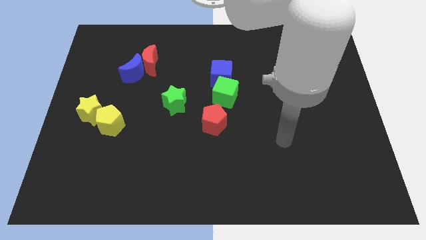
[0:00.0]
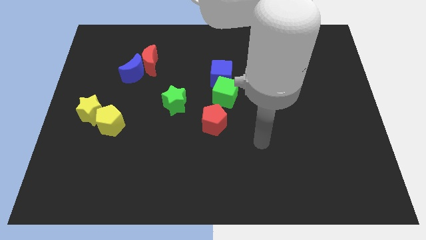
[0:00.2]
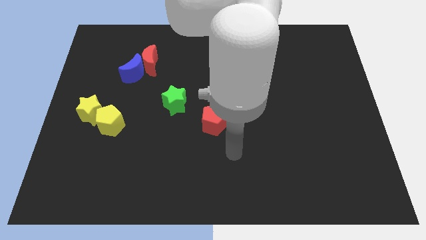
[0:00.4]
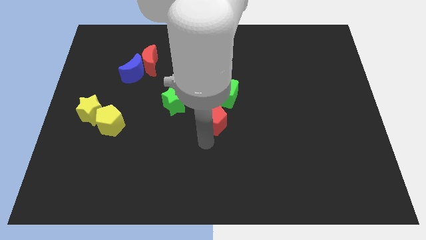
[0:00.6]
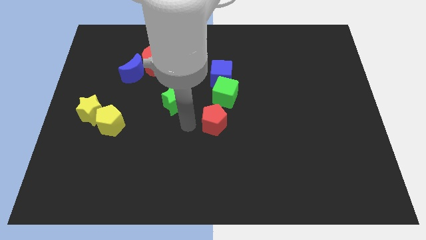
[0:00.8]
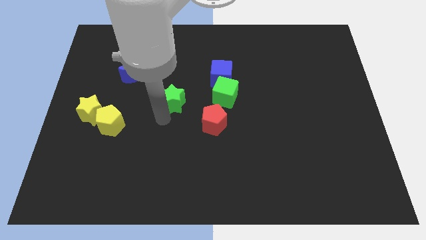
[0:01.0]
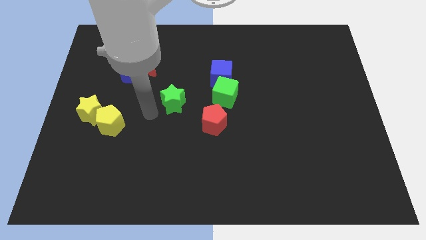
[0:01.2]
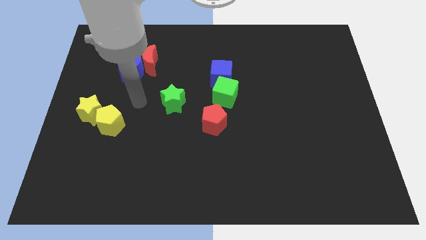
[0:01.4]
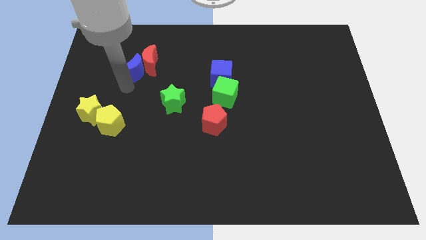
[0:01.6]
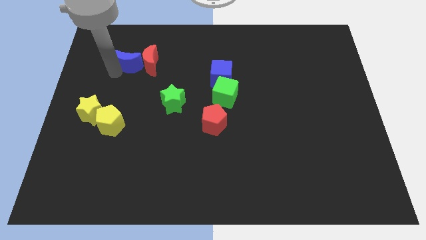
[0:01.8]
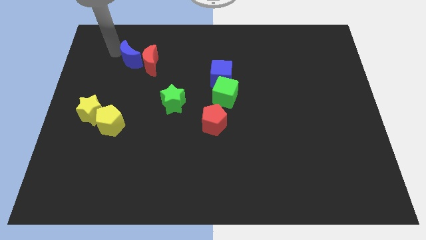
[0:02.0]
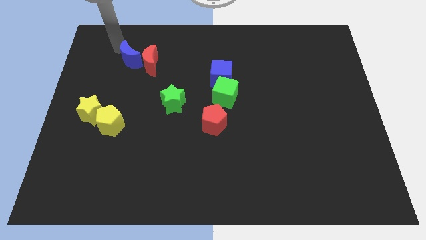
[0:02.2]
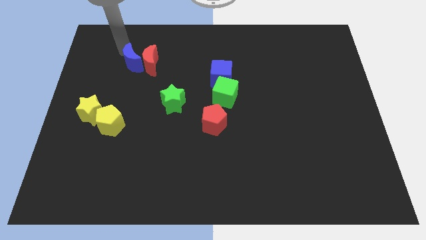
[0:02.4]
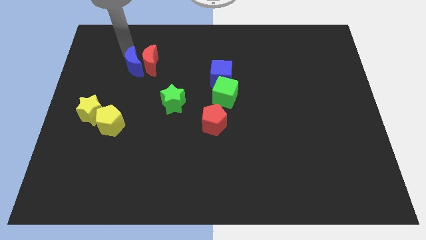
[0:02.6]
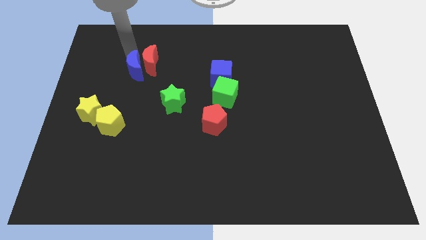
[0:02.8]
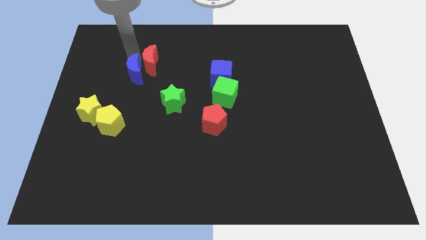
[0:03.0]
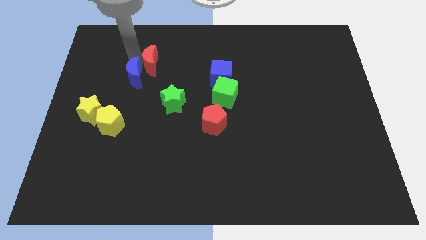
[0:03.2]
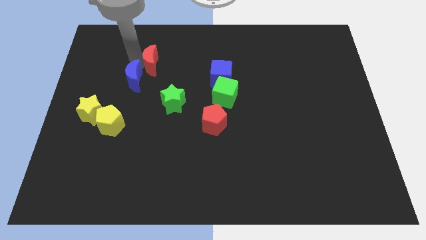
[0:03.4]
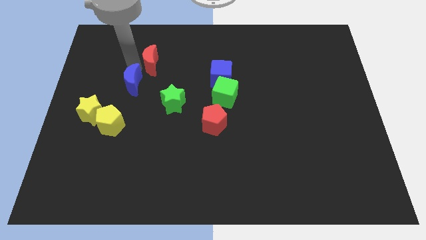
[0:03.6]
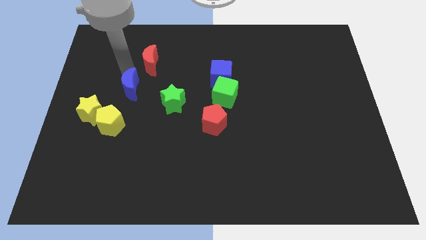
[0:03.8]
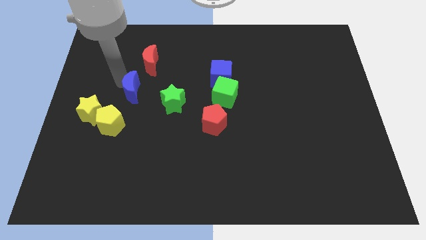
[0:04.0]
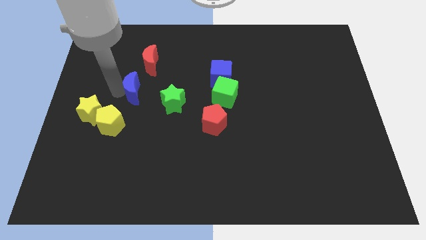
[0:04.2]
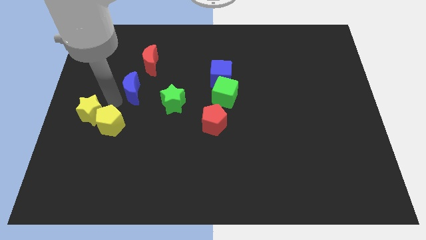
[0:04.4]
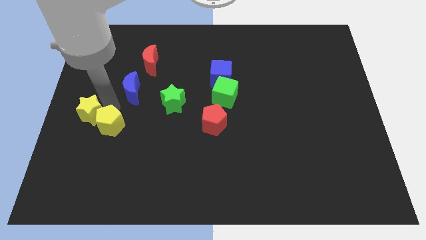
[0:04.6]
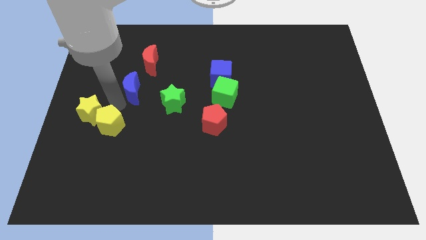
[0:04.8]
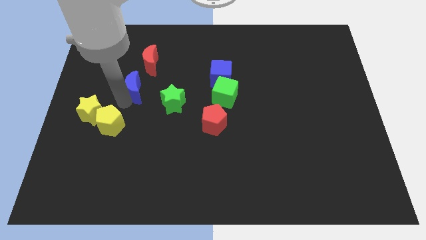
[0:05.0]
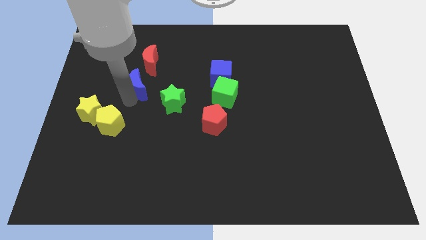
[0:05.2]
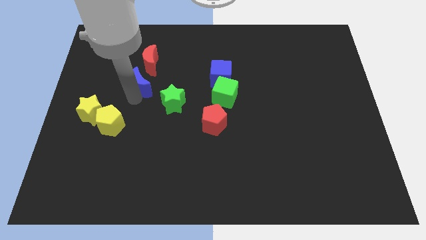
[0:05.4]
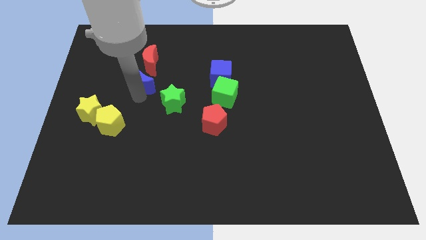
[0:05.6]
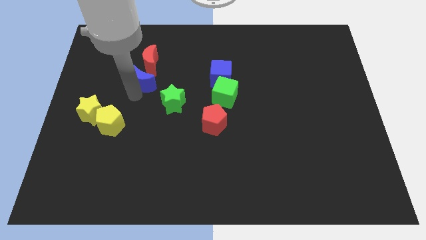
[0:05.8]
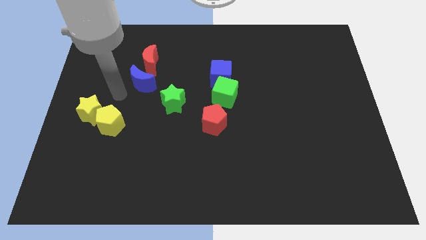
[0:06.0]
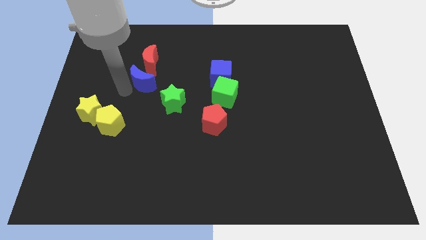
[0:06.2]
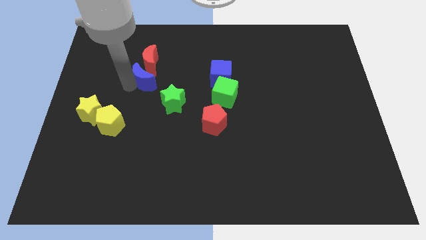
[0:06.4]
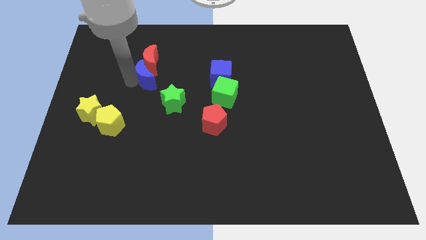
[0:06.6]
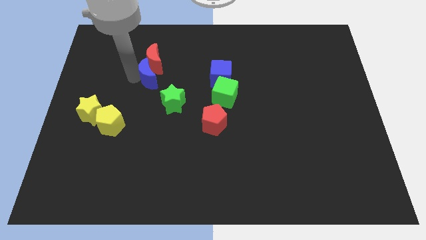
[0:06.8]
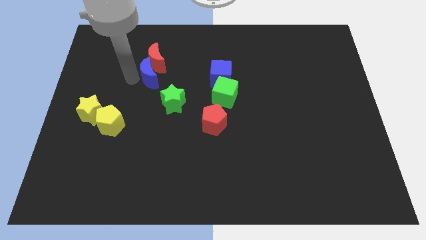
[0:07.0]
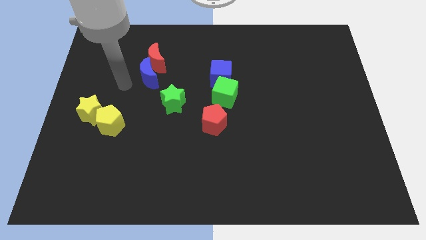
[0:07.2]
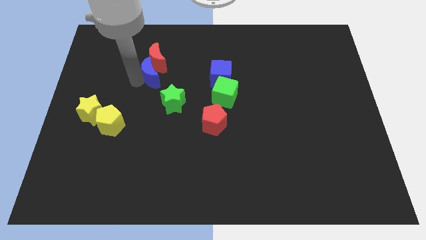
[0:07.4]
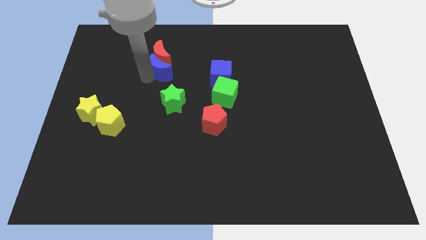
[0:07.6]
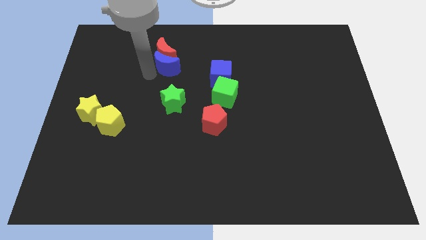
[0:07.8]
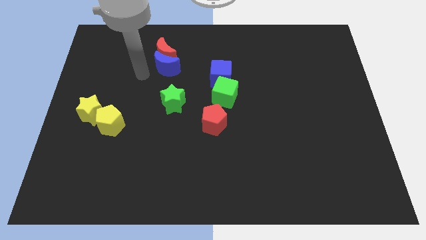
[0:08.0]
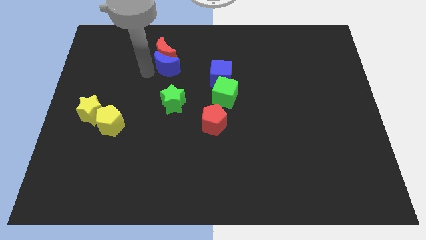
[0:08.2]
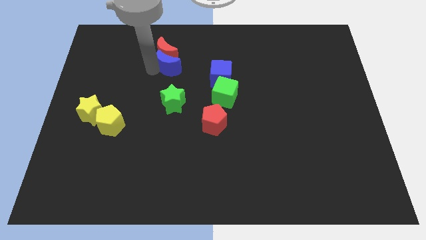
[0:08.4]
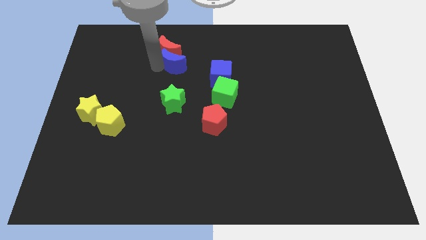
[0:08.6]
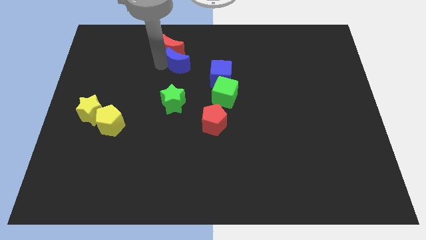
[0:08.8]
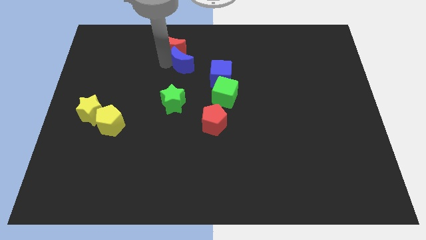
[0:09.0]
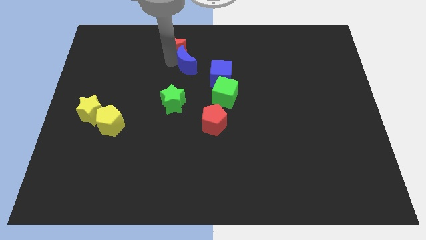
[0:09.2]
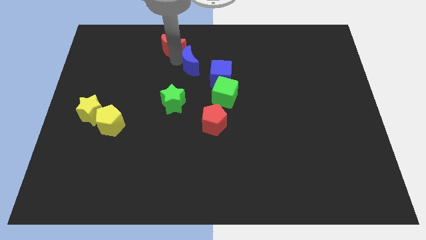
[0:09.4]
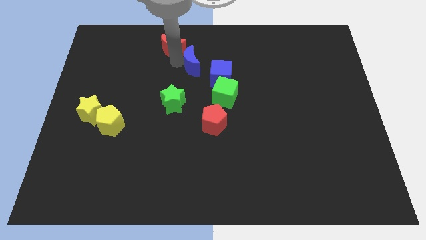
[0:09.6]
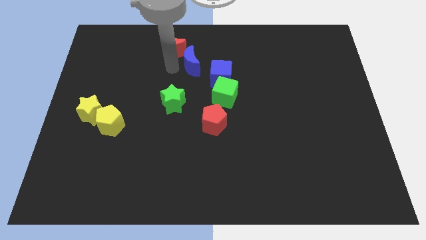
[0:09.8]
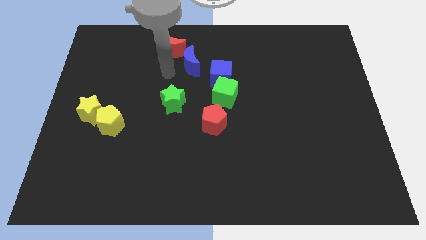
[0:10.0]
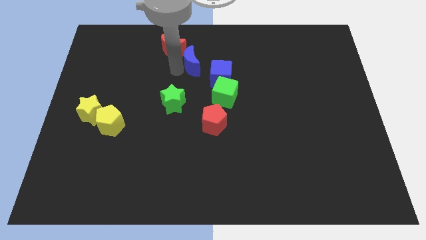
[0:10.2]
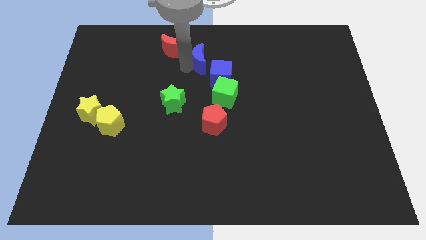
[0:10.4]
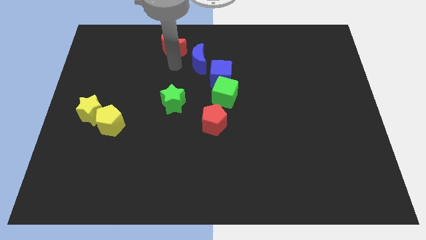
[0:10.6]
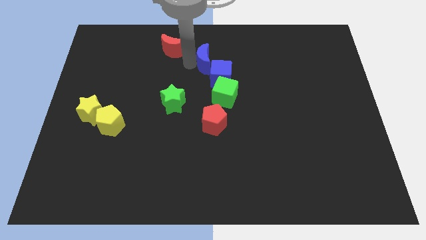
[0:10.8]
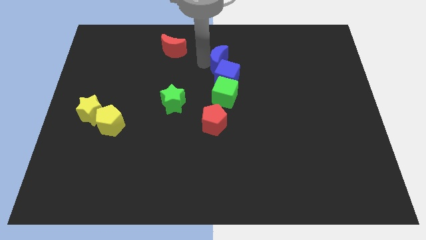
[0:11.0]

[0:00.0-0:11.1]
push the blue moon right

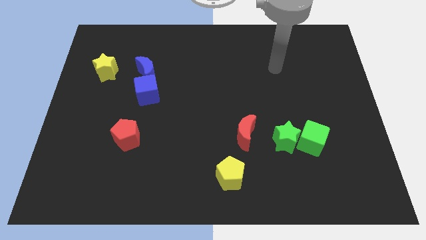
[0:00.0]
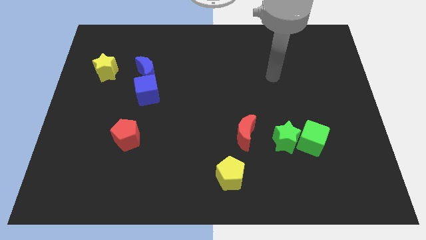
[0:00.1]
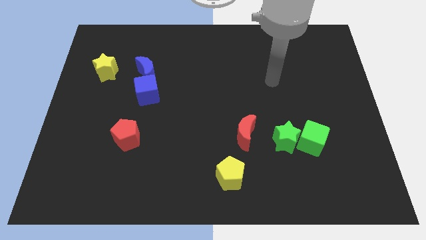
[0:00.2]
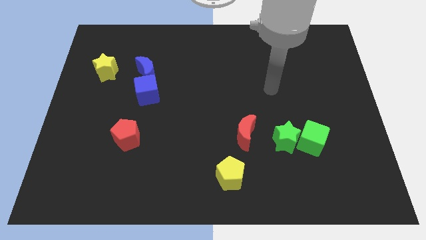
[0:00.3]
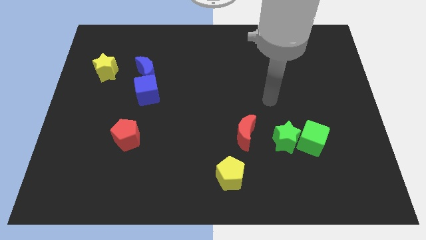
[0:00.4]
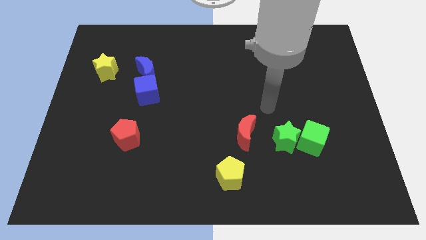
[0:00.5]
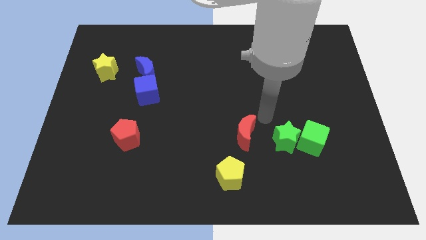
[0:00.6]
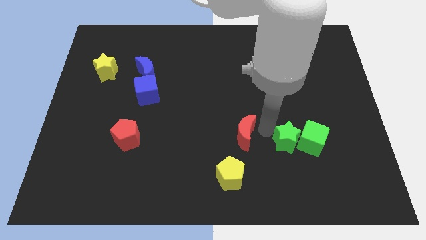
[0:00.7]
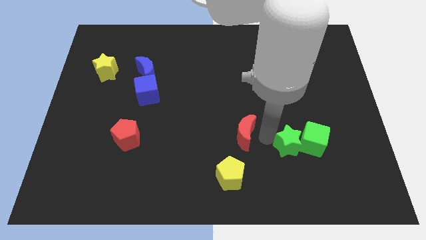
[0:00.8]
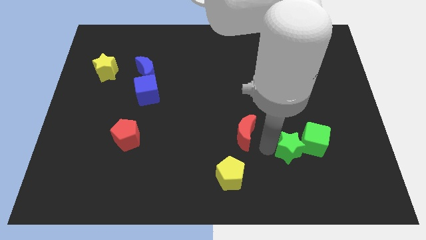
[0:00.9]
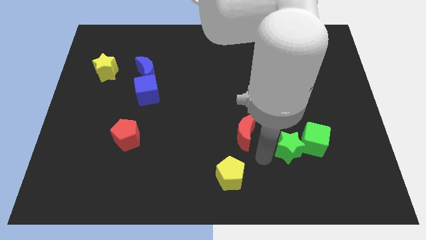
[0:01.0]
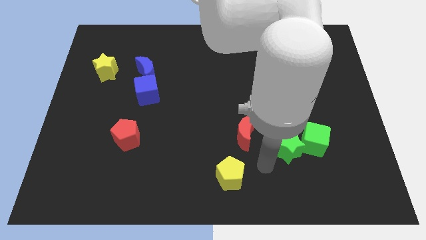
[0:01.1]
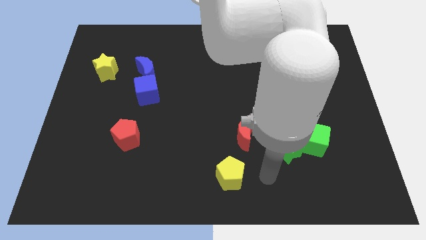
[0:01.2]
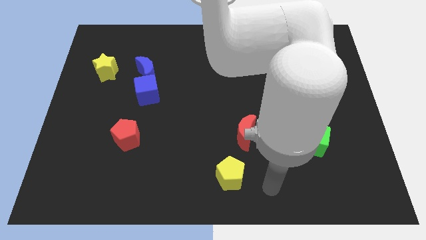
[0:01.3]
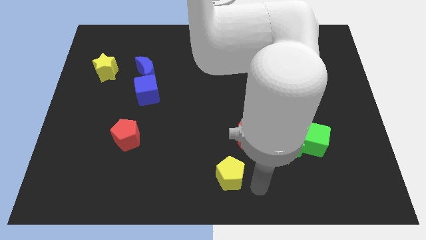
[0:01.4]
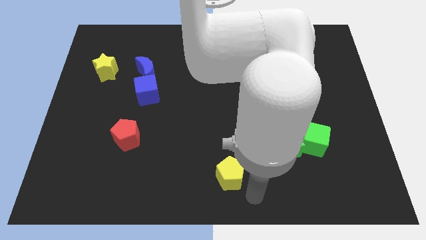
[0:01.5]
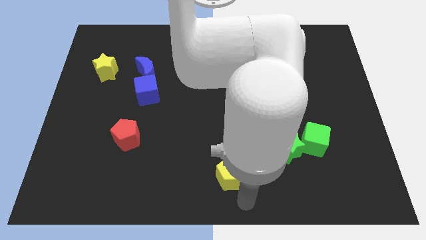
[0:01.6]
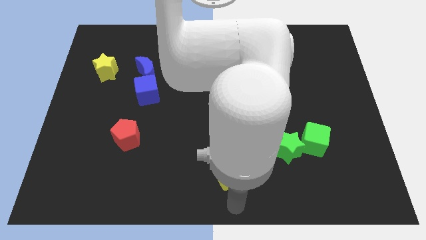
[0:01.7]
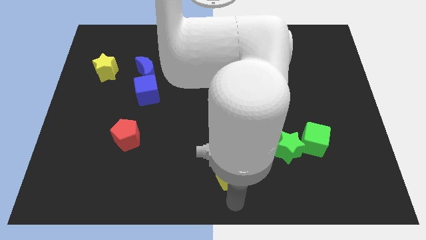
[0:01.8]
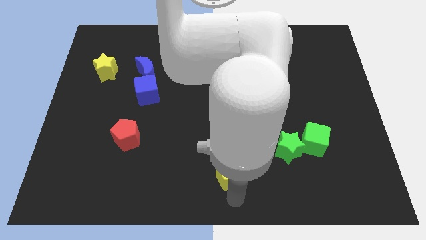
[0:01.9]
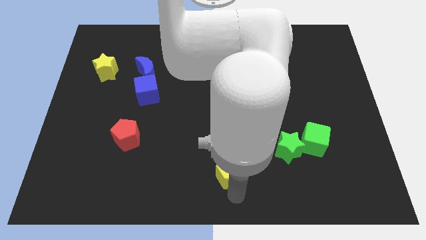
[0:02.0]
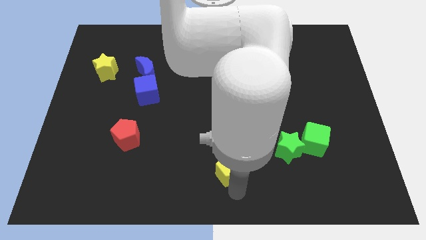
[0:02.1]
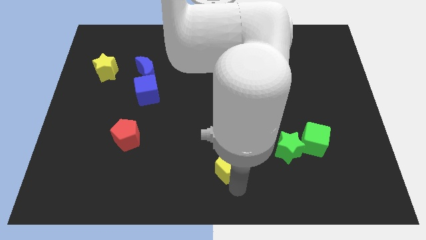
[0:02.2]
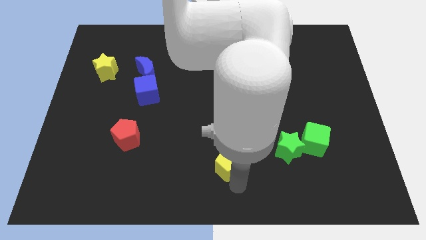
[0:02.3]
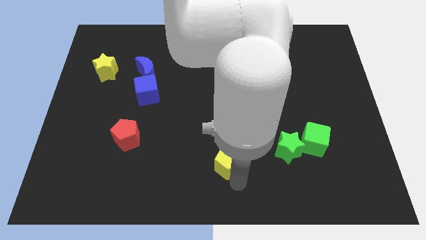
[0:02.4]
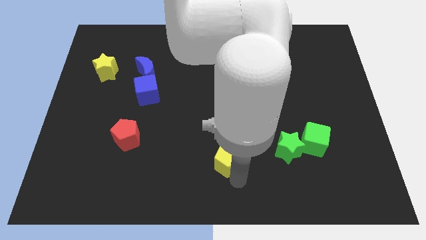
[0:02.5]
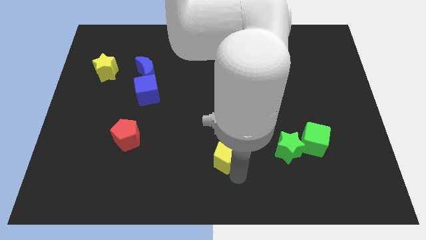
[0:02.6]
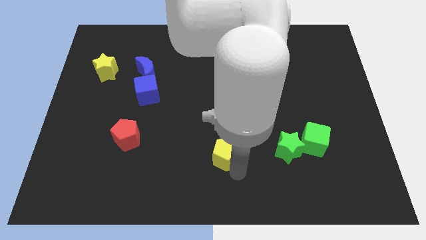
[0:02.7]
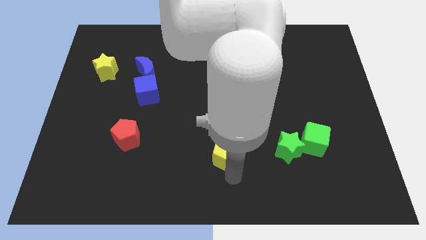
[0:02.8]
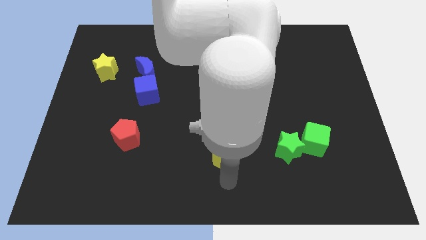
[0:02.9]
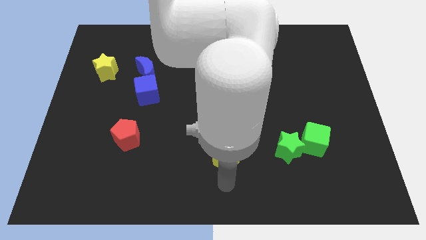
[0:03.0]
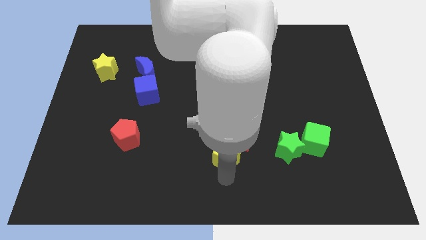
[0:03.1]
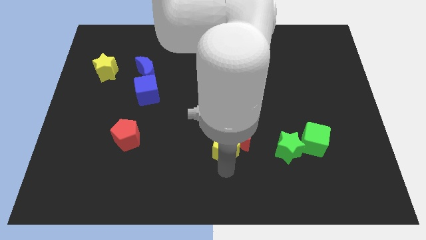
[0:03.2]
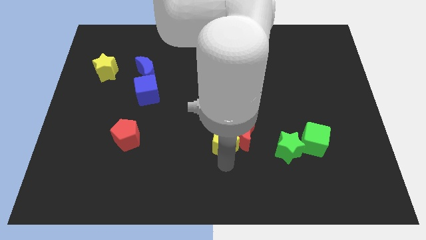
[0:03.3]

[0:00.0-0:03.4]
slightly push the yellow pentagon upwards
